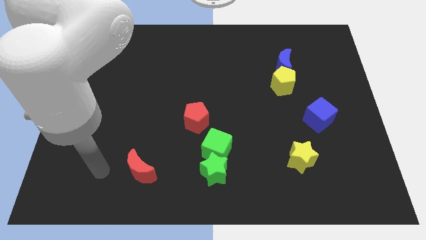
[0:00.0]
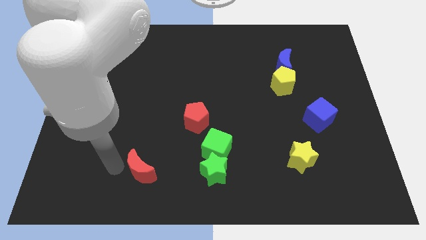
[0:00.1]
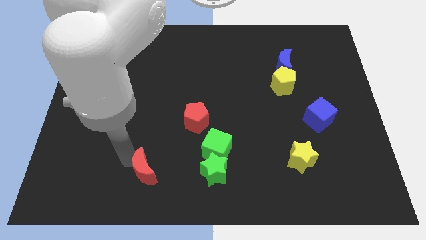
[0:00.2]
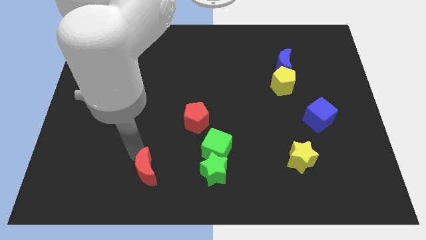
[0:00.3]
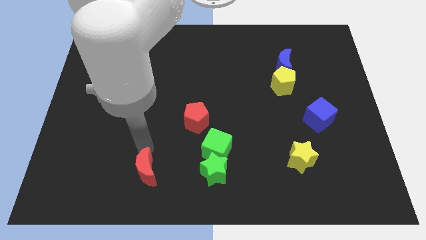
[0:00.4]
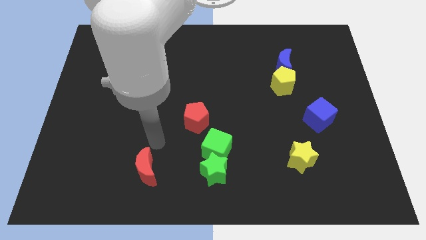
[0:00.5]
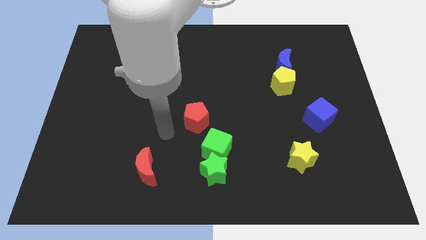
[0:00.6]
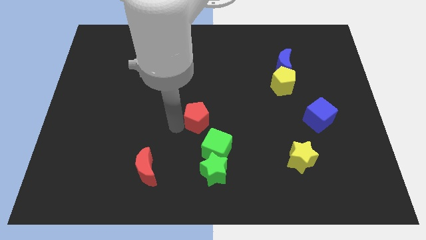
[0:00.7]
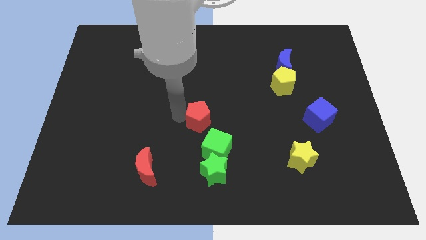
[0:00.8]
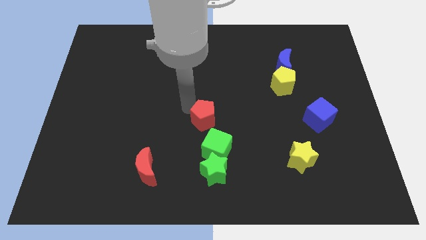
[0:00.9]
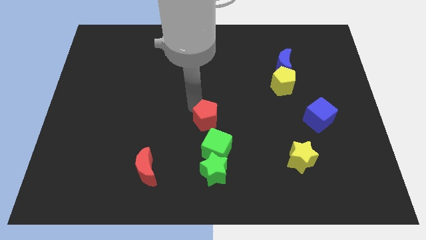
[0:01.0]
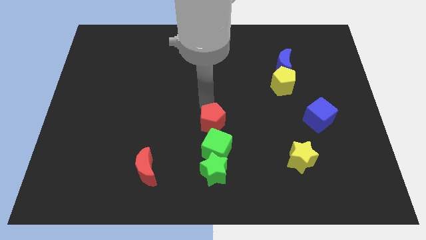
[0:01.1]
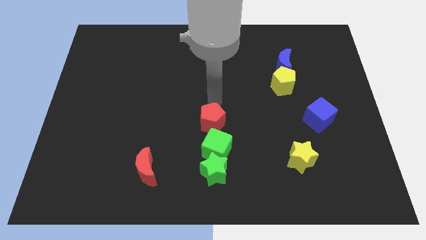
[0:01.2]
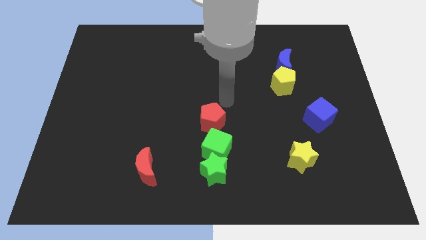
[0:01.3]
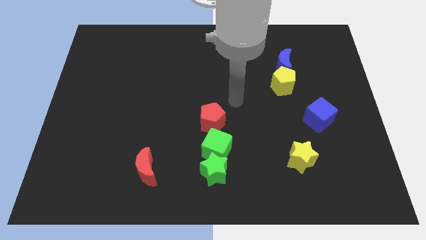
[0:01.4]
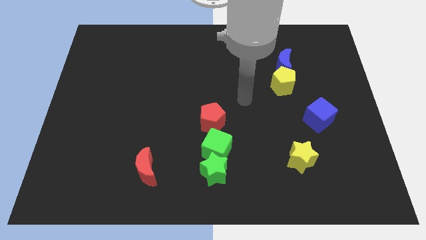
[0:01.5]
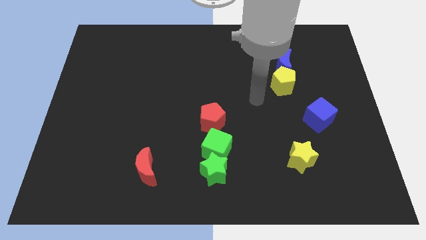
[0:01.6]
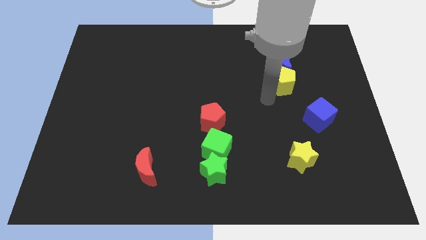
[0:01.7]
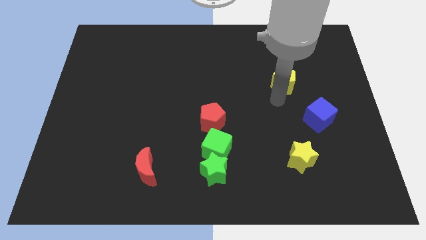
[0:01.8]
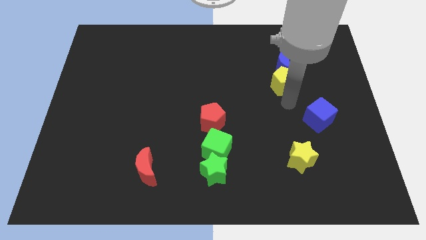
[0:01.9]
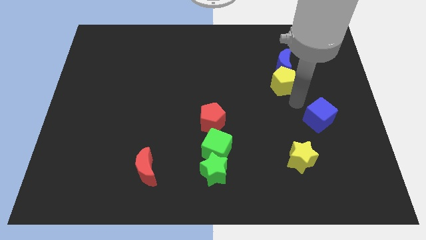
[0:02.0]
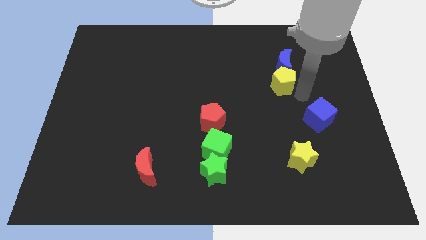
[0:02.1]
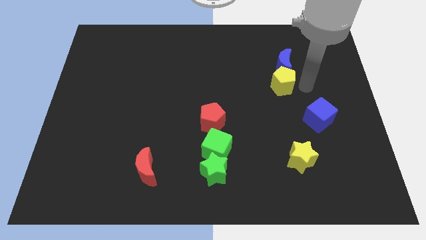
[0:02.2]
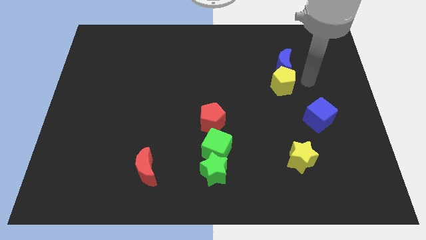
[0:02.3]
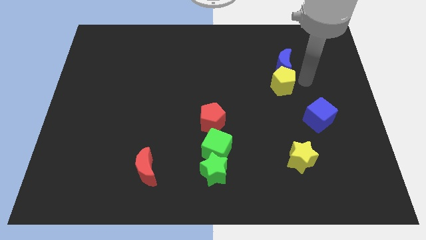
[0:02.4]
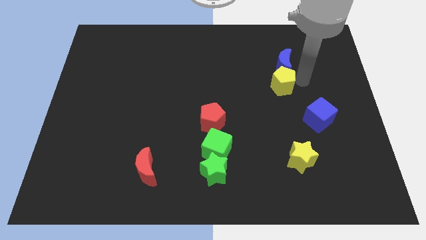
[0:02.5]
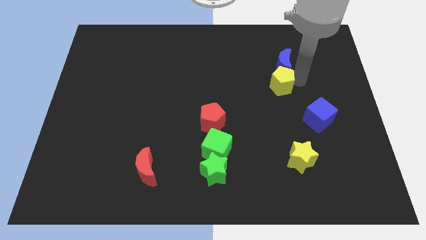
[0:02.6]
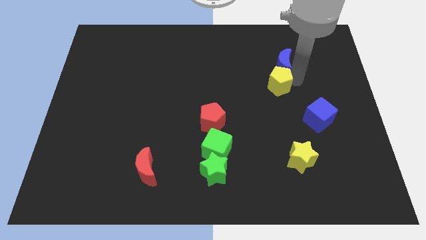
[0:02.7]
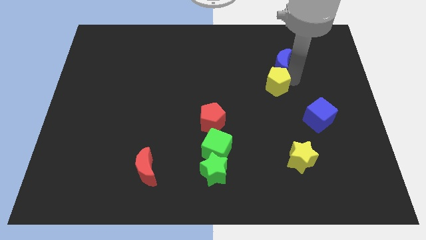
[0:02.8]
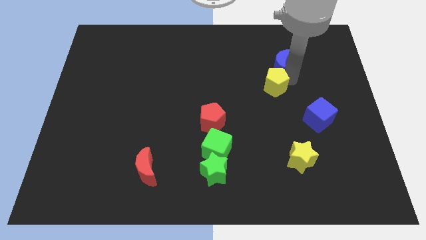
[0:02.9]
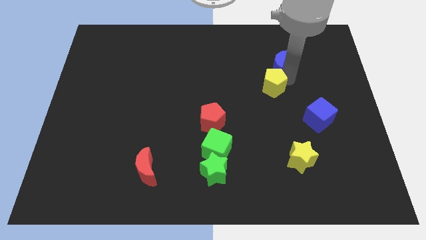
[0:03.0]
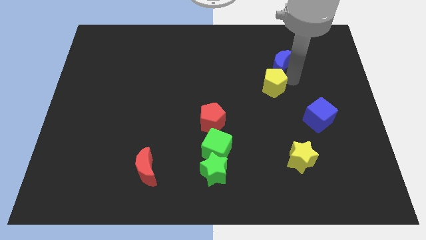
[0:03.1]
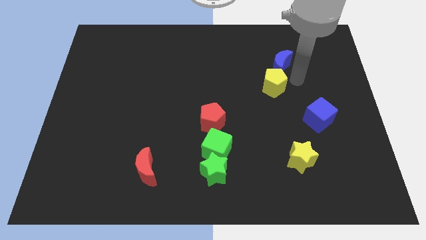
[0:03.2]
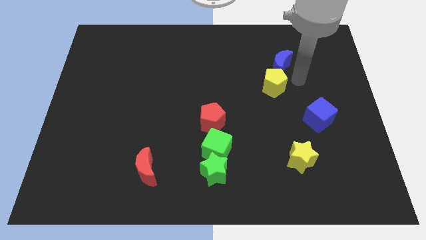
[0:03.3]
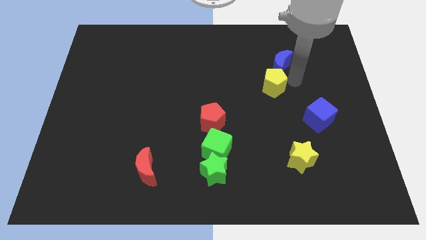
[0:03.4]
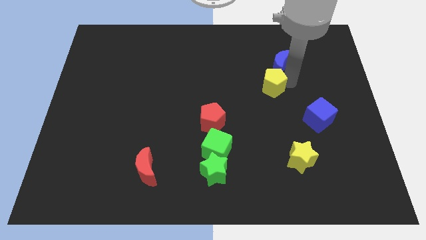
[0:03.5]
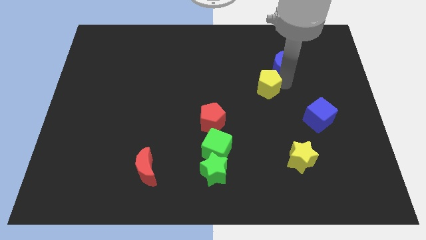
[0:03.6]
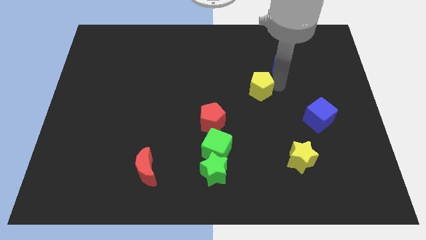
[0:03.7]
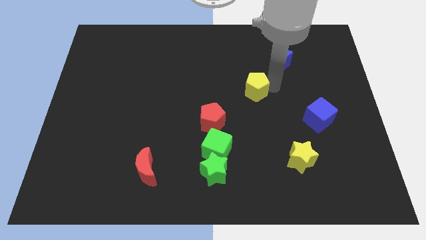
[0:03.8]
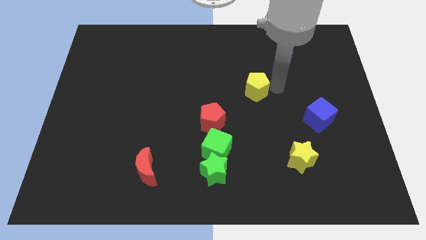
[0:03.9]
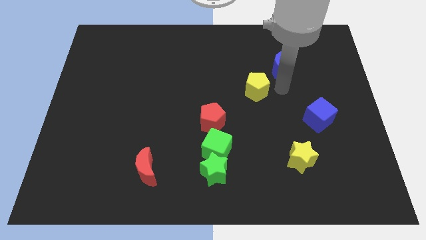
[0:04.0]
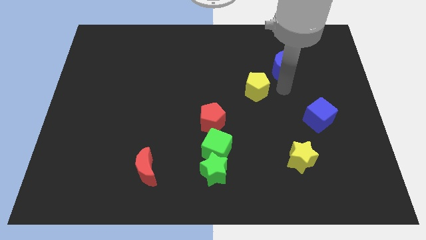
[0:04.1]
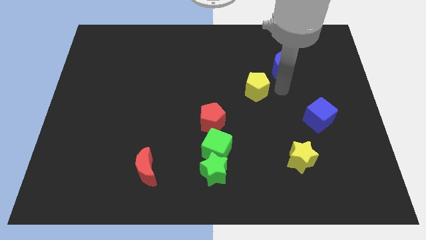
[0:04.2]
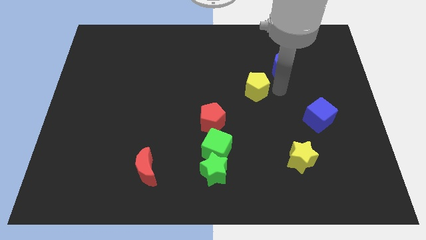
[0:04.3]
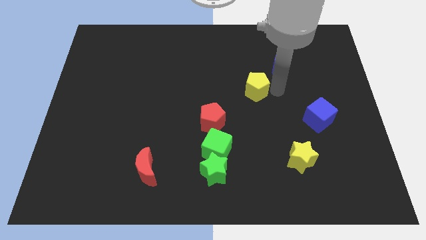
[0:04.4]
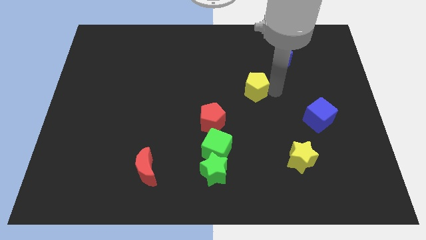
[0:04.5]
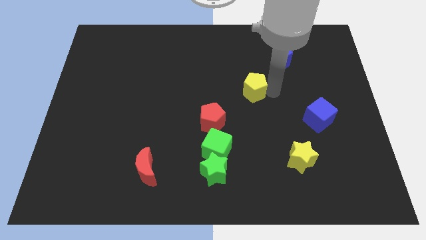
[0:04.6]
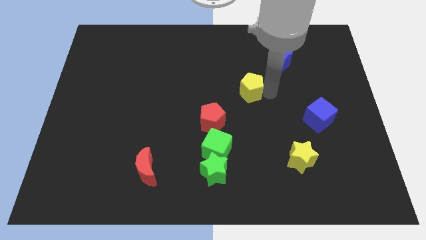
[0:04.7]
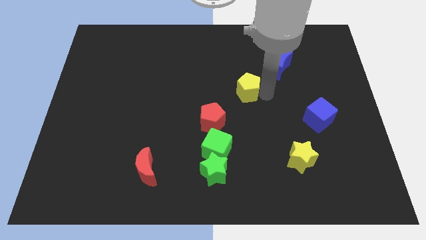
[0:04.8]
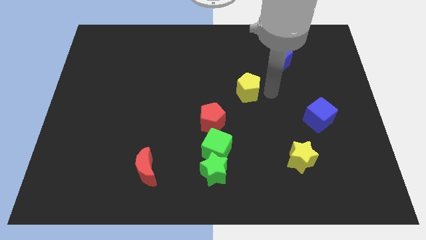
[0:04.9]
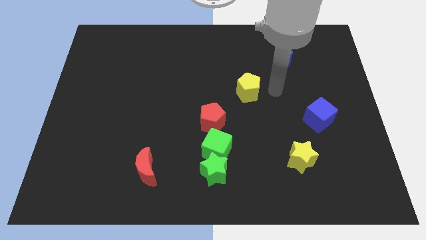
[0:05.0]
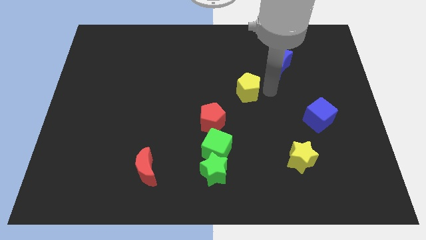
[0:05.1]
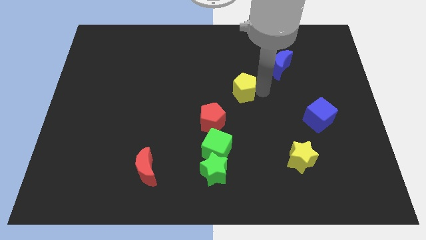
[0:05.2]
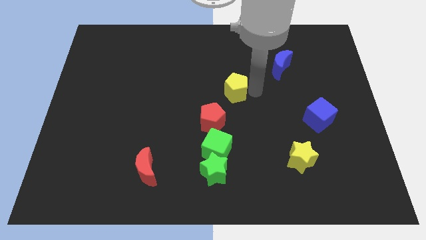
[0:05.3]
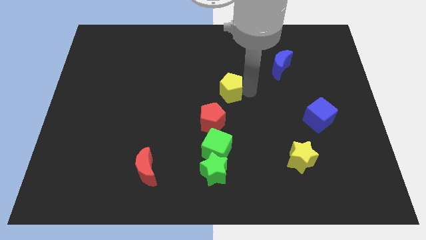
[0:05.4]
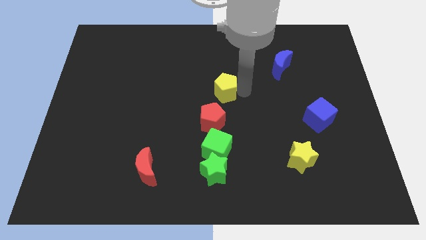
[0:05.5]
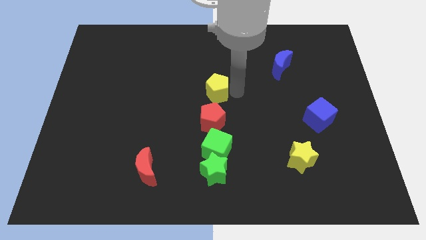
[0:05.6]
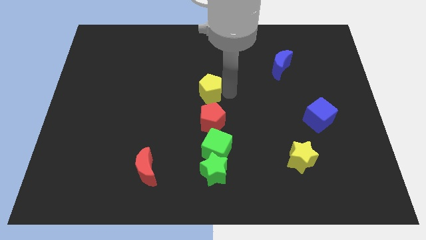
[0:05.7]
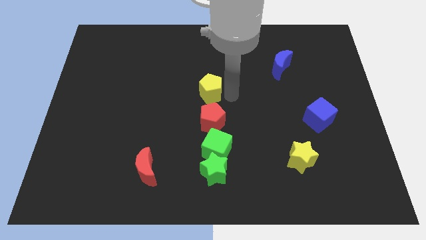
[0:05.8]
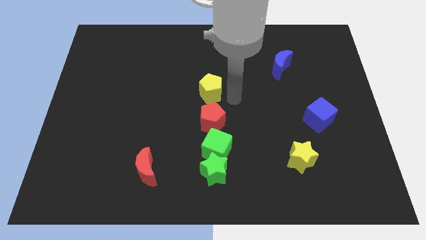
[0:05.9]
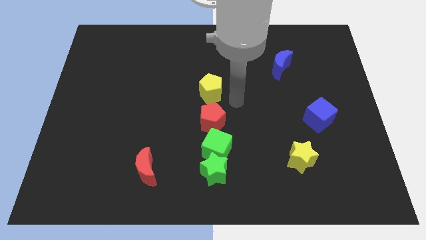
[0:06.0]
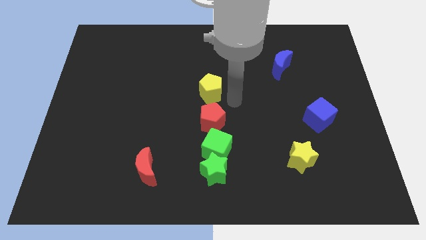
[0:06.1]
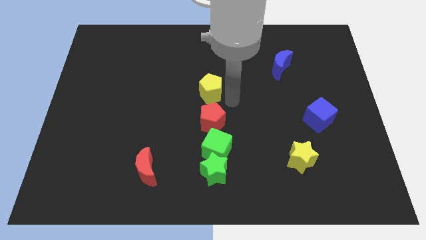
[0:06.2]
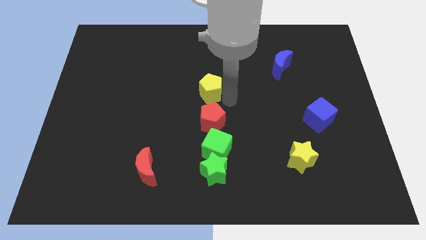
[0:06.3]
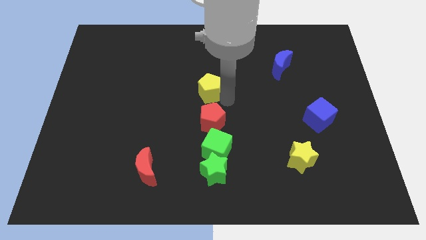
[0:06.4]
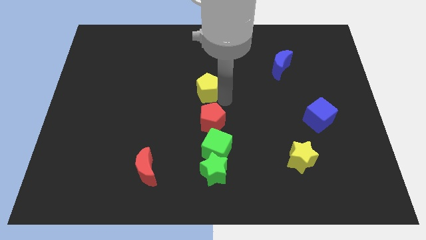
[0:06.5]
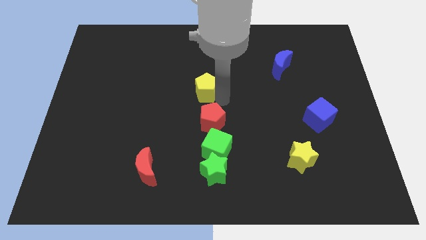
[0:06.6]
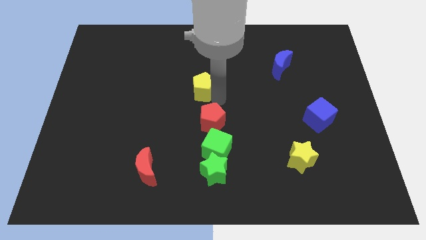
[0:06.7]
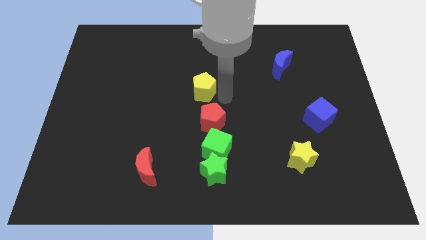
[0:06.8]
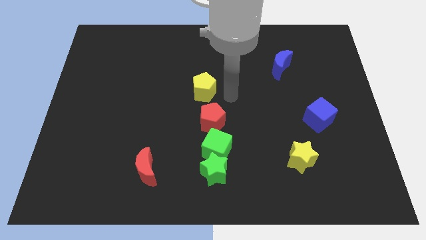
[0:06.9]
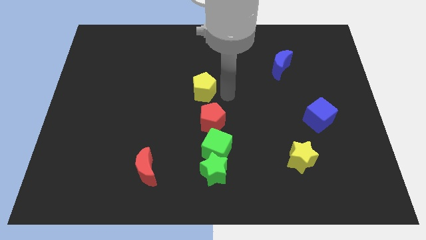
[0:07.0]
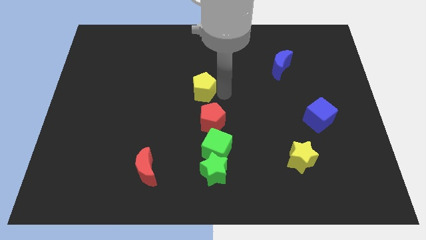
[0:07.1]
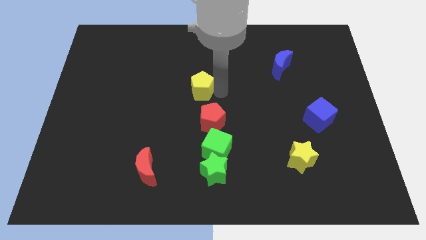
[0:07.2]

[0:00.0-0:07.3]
move the yellow pentagon left

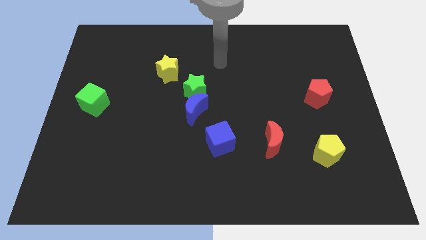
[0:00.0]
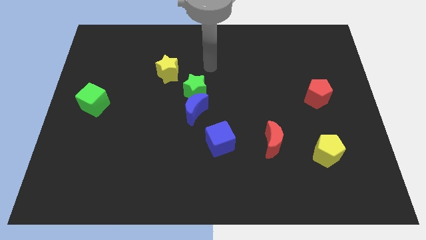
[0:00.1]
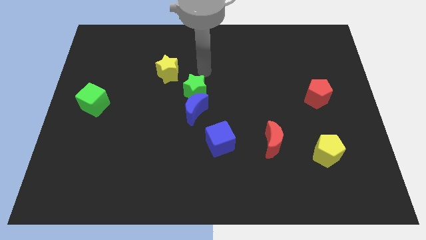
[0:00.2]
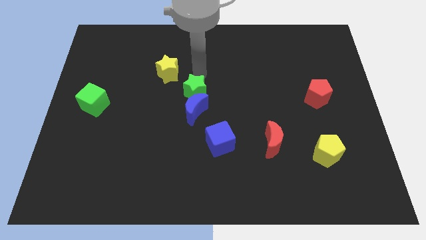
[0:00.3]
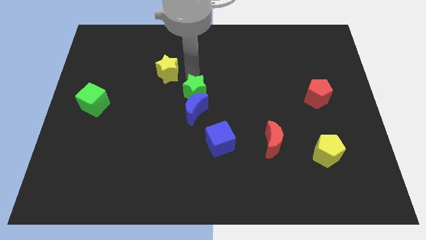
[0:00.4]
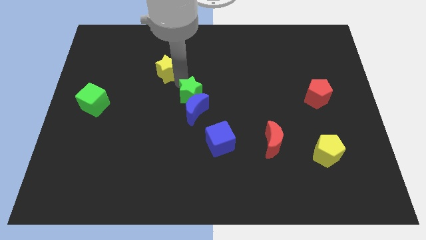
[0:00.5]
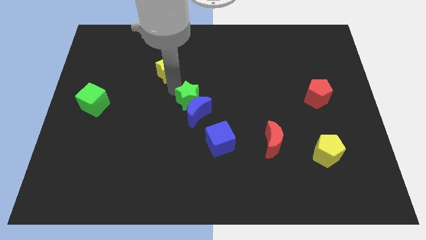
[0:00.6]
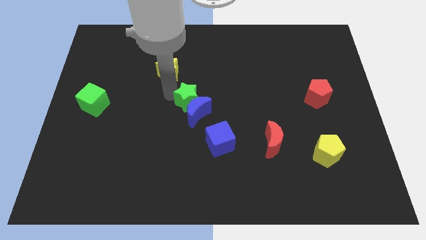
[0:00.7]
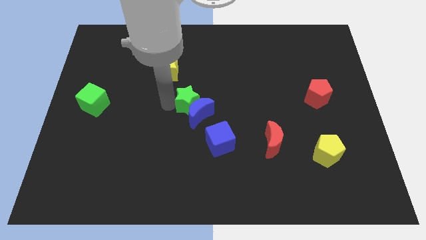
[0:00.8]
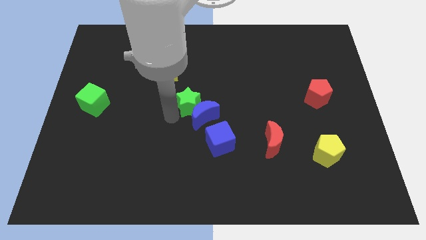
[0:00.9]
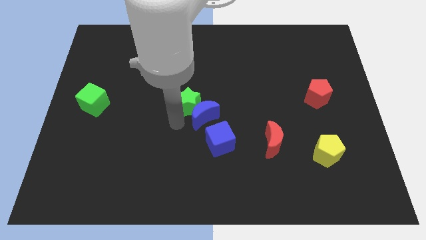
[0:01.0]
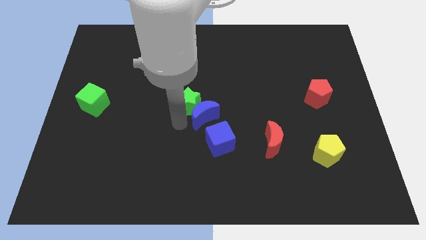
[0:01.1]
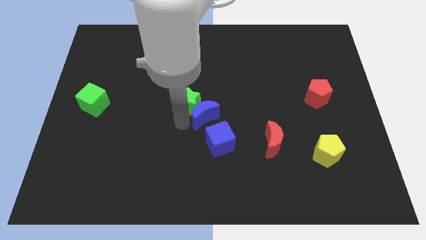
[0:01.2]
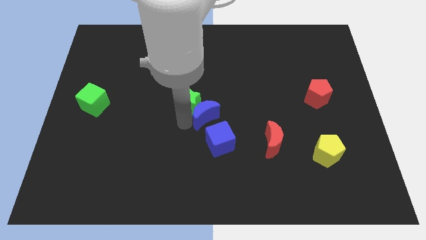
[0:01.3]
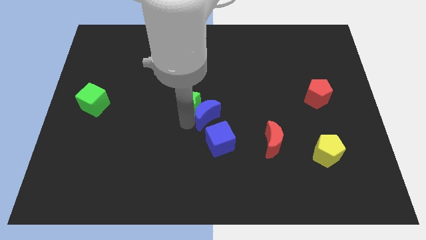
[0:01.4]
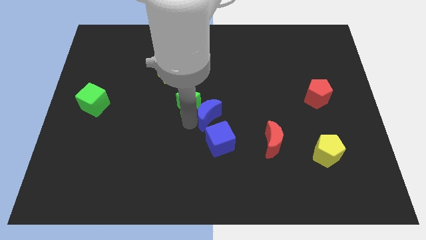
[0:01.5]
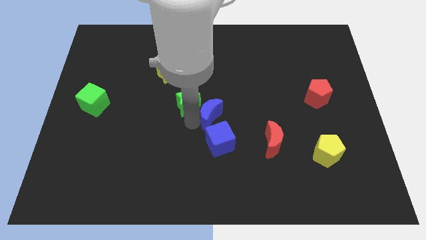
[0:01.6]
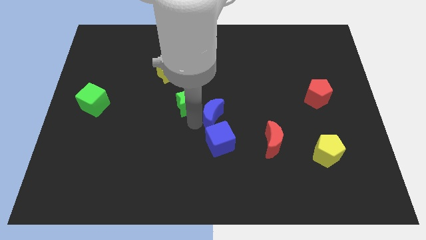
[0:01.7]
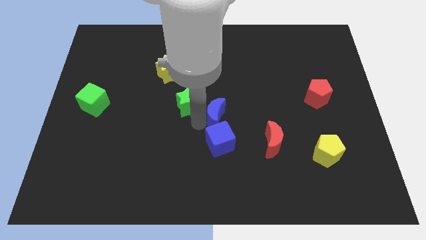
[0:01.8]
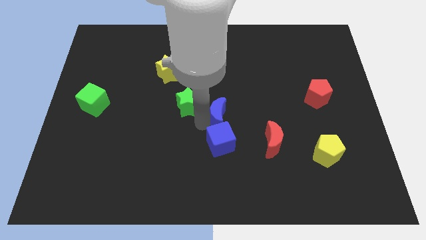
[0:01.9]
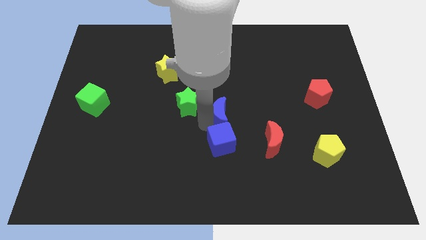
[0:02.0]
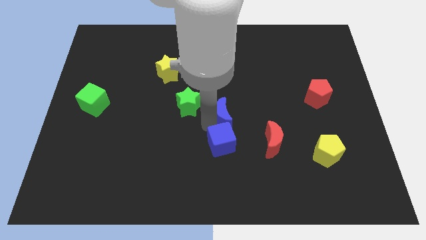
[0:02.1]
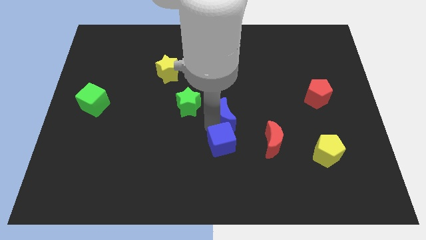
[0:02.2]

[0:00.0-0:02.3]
slightly push the blue moon to the right
